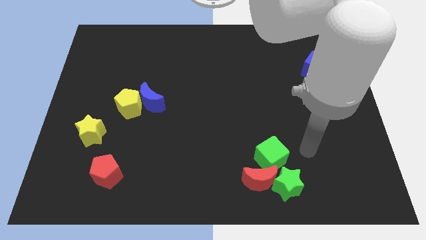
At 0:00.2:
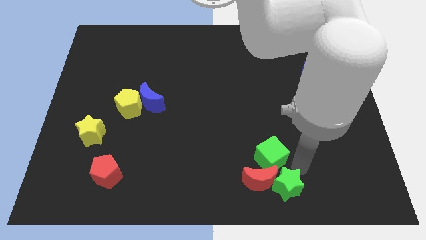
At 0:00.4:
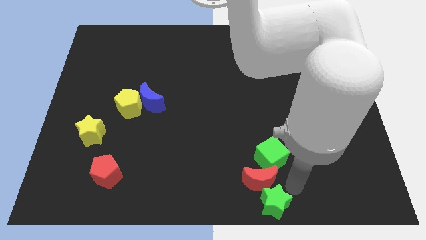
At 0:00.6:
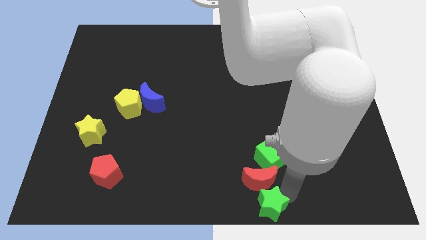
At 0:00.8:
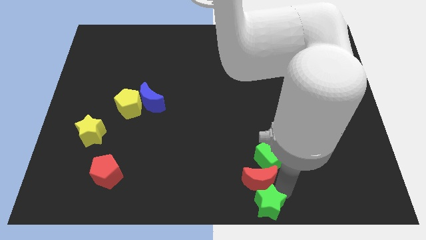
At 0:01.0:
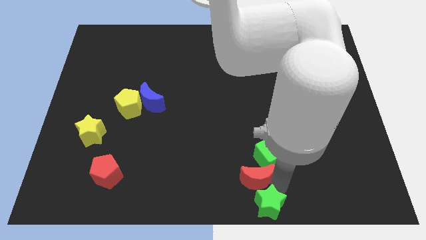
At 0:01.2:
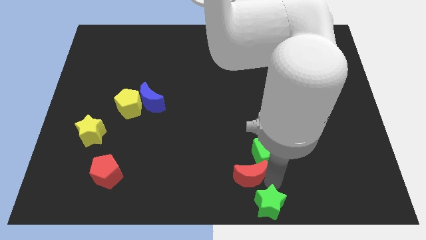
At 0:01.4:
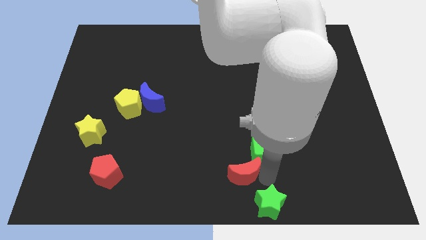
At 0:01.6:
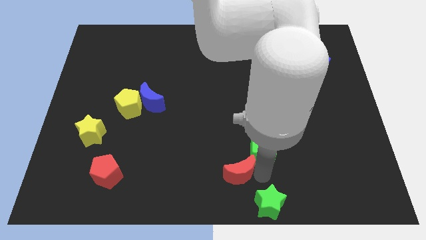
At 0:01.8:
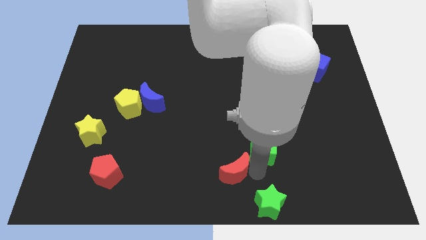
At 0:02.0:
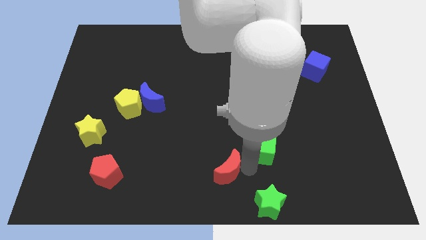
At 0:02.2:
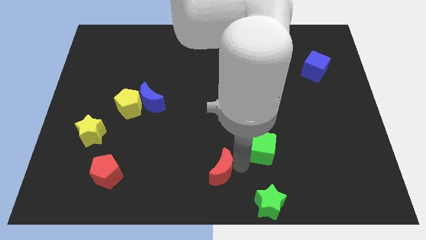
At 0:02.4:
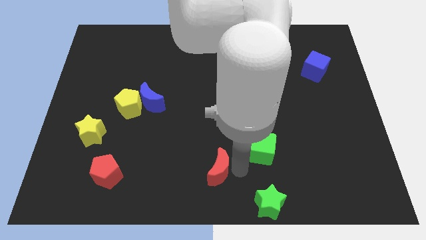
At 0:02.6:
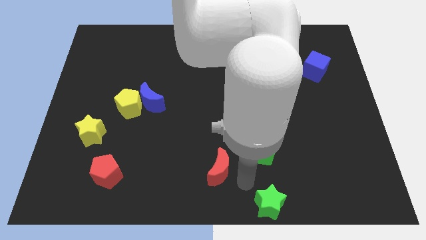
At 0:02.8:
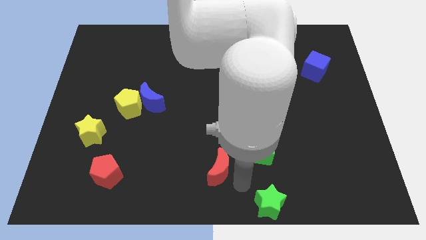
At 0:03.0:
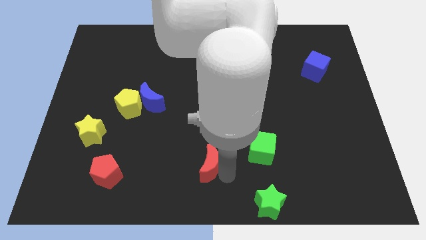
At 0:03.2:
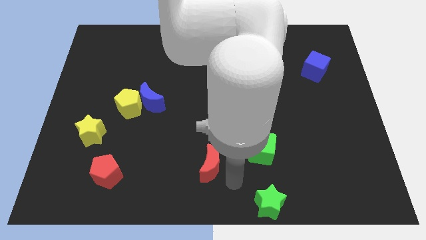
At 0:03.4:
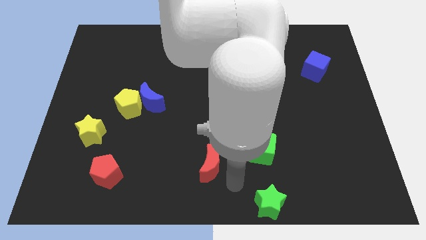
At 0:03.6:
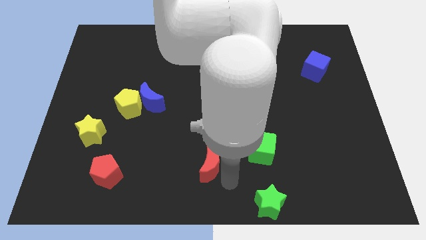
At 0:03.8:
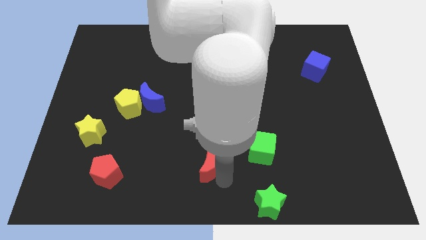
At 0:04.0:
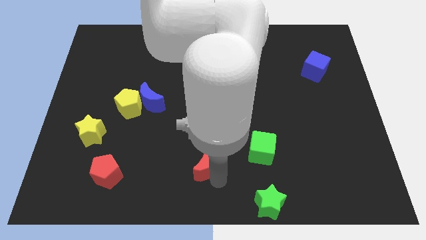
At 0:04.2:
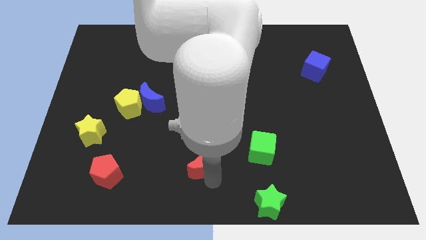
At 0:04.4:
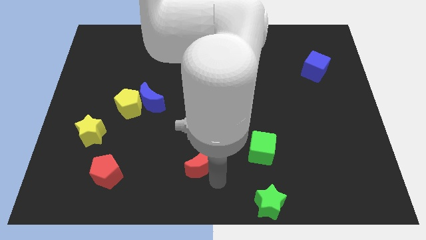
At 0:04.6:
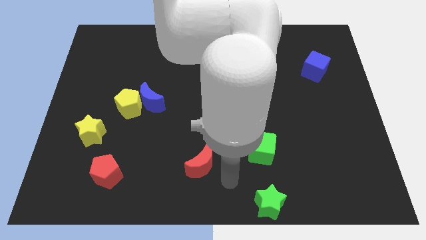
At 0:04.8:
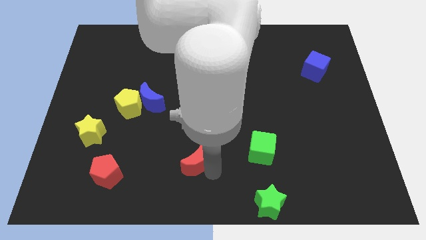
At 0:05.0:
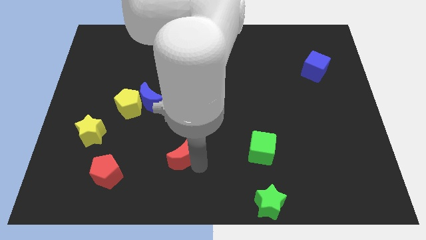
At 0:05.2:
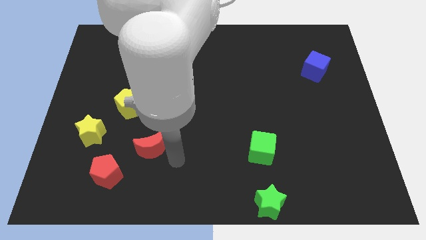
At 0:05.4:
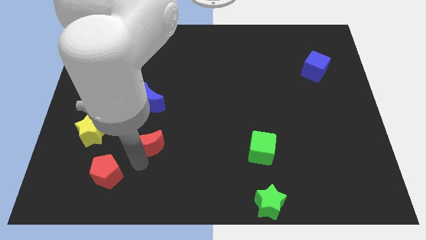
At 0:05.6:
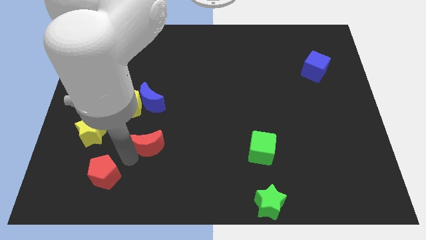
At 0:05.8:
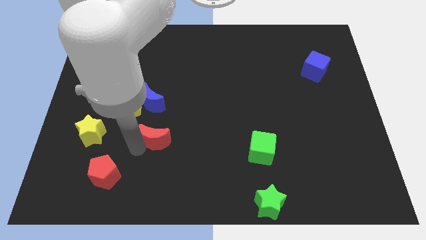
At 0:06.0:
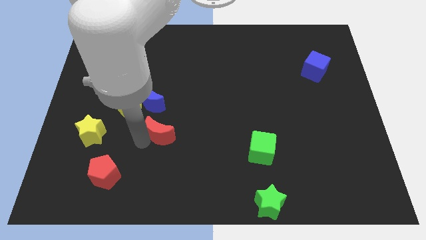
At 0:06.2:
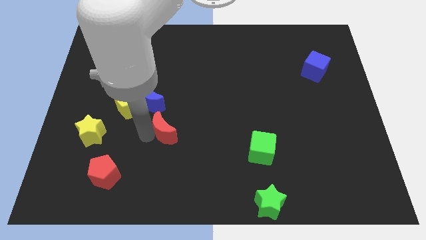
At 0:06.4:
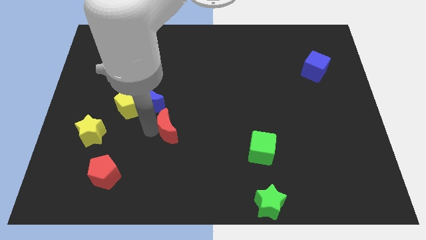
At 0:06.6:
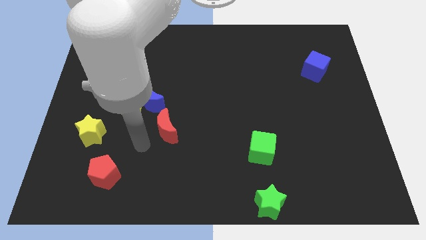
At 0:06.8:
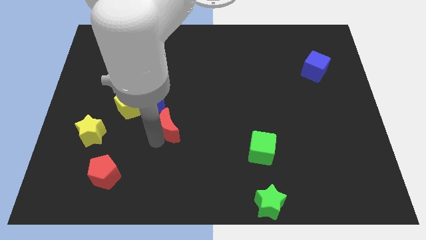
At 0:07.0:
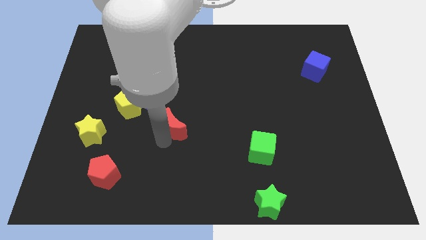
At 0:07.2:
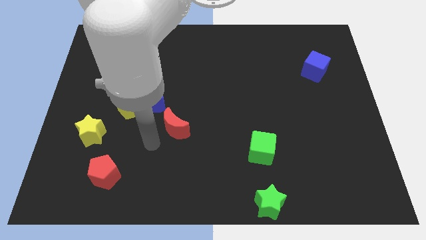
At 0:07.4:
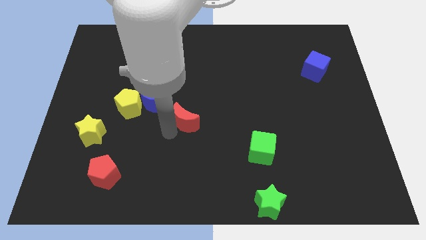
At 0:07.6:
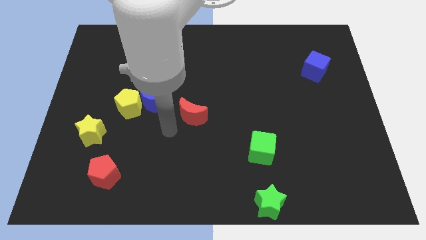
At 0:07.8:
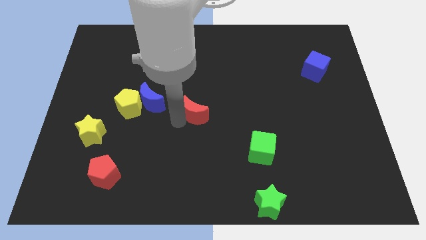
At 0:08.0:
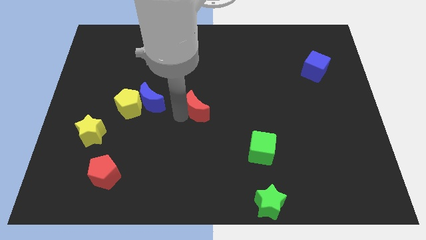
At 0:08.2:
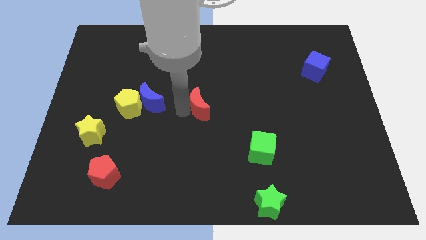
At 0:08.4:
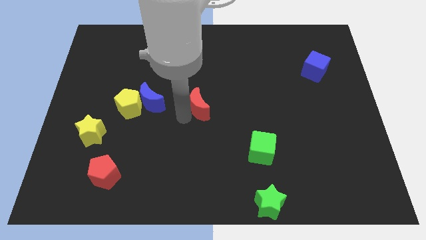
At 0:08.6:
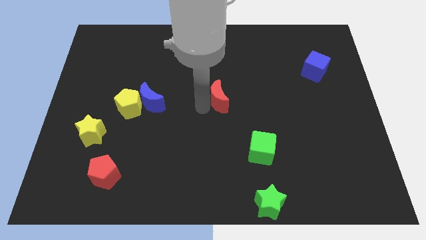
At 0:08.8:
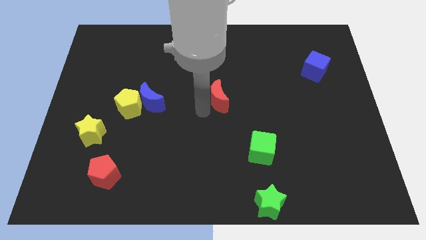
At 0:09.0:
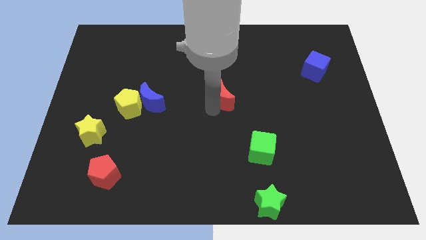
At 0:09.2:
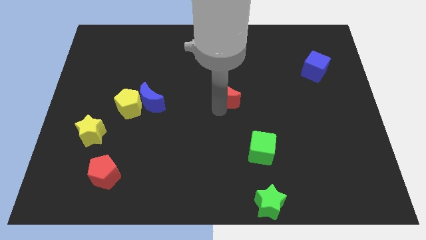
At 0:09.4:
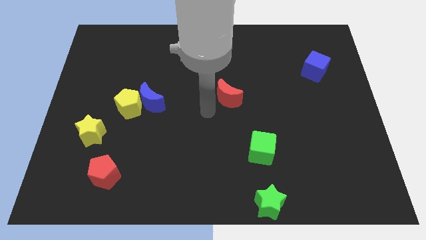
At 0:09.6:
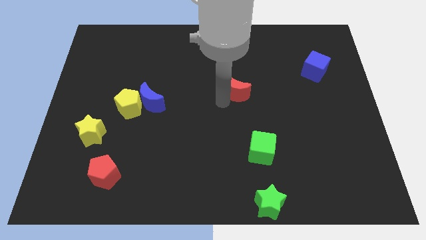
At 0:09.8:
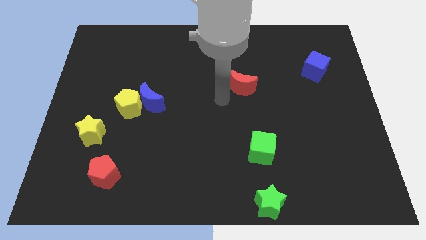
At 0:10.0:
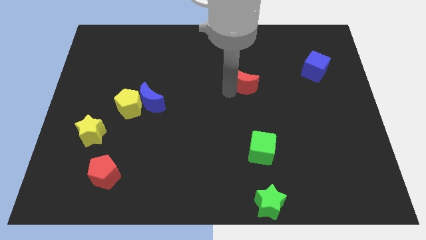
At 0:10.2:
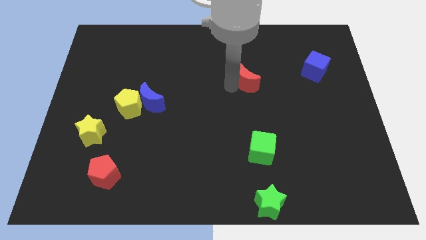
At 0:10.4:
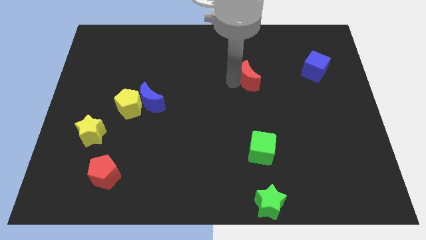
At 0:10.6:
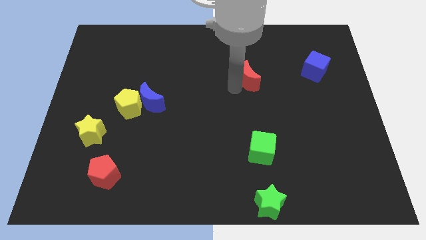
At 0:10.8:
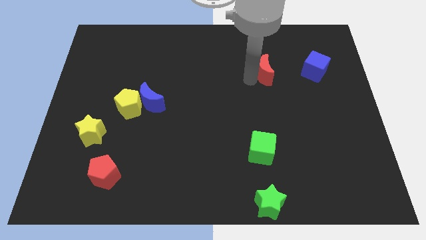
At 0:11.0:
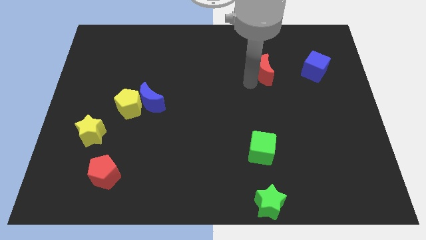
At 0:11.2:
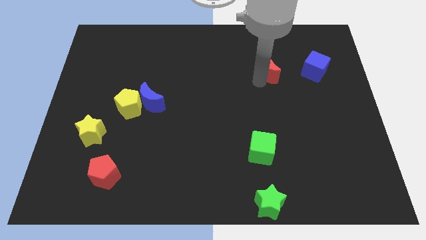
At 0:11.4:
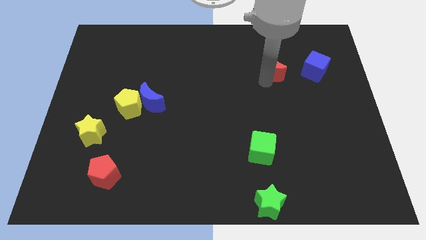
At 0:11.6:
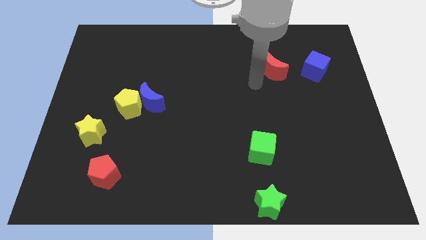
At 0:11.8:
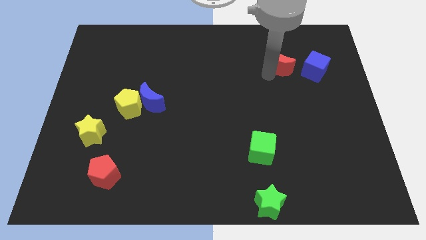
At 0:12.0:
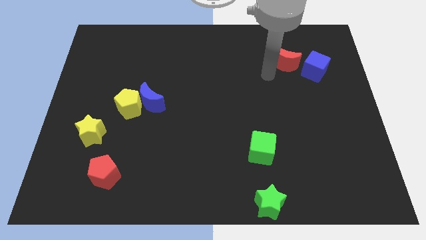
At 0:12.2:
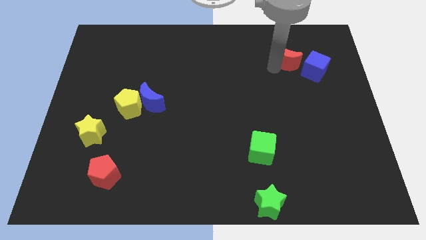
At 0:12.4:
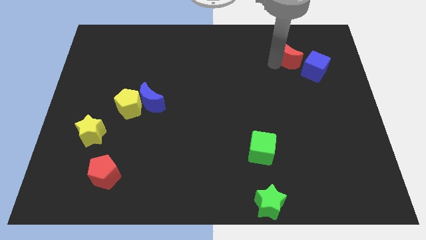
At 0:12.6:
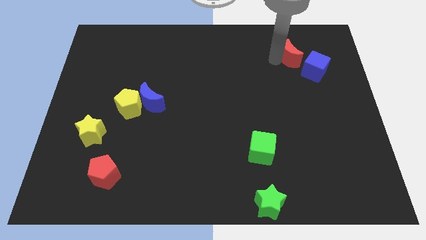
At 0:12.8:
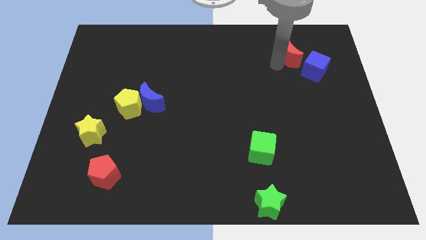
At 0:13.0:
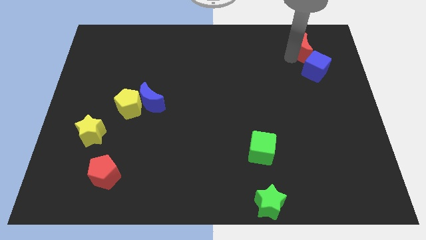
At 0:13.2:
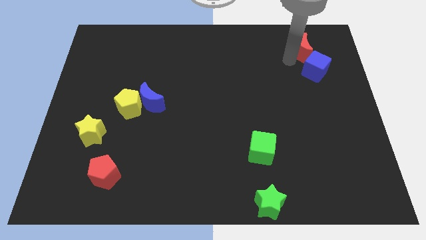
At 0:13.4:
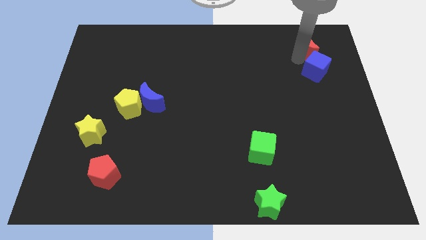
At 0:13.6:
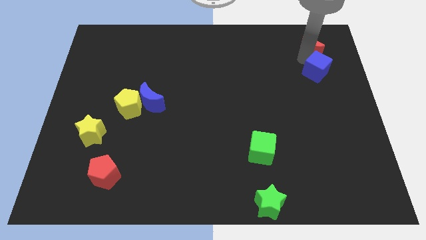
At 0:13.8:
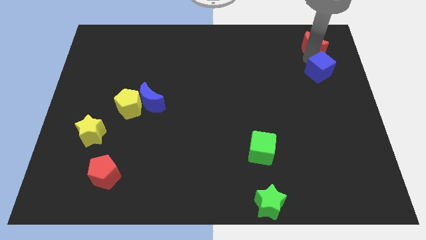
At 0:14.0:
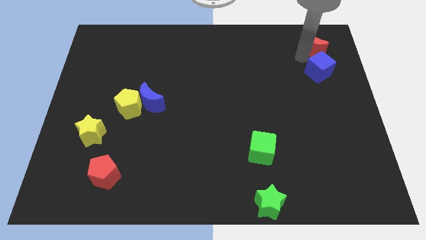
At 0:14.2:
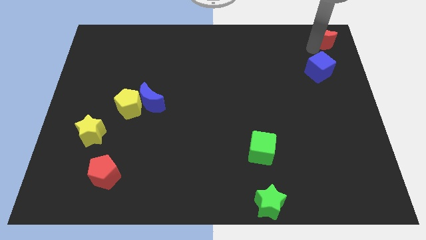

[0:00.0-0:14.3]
push the red moon to the upper right corner
